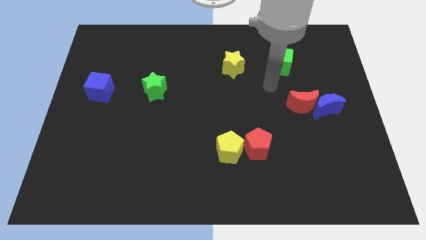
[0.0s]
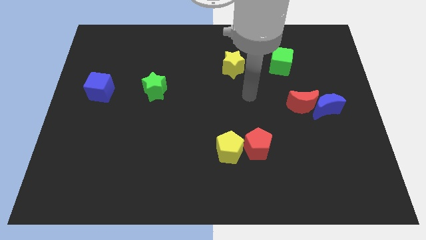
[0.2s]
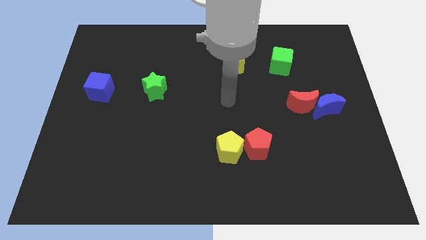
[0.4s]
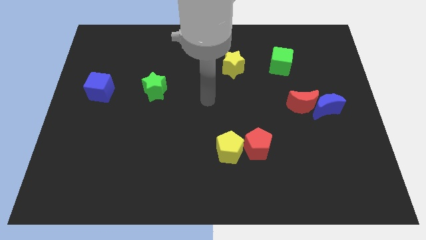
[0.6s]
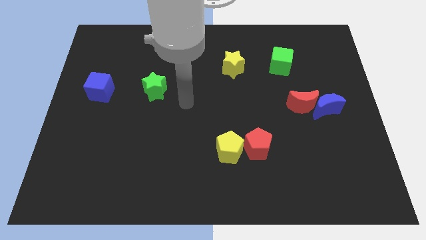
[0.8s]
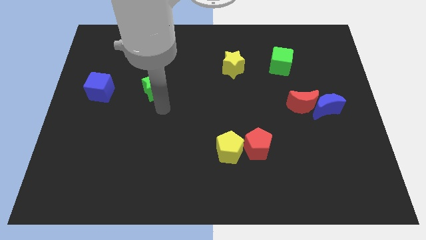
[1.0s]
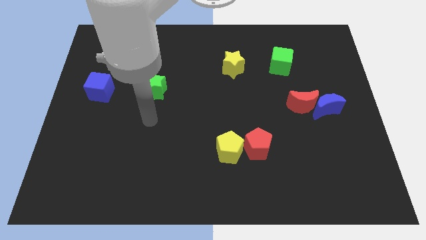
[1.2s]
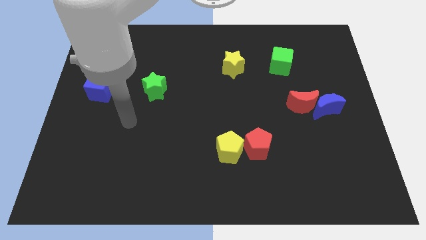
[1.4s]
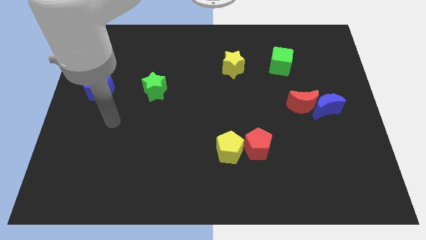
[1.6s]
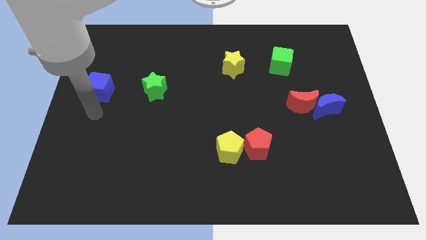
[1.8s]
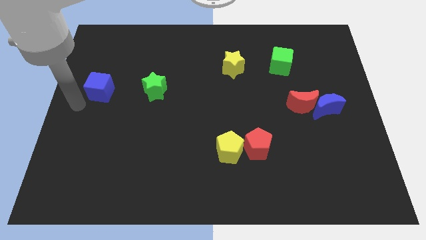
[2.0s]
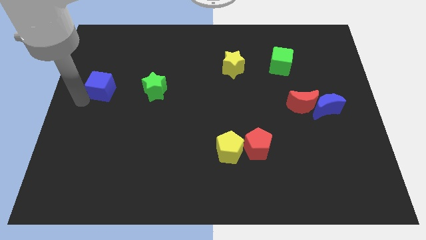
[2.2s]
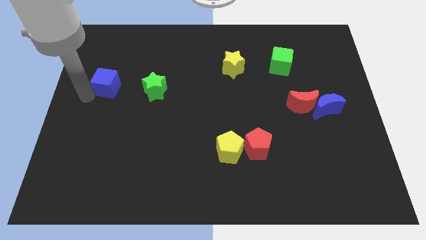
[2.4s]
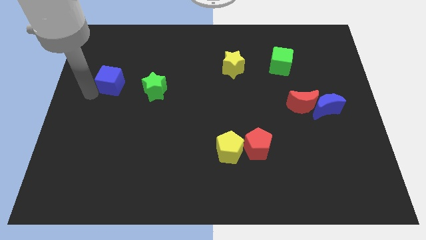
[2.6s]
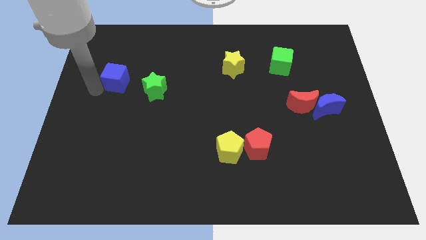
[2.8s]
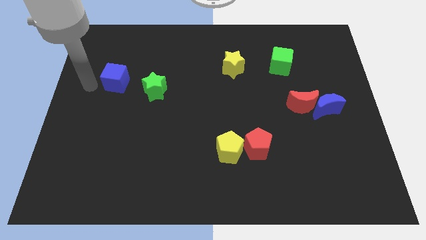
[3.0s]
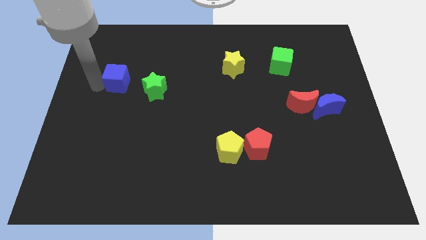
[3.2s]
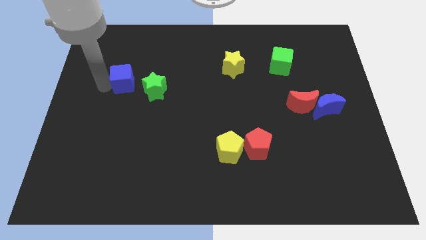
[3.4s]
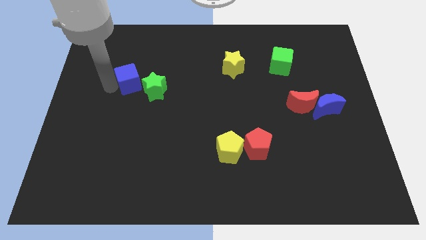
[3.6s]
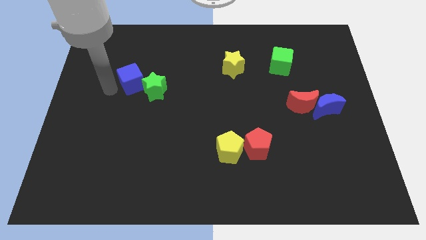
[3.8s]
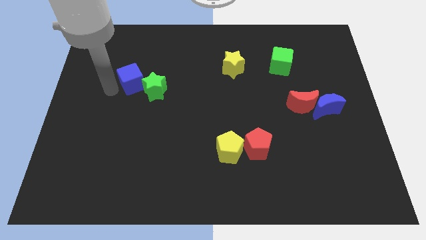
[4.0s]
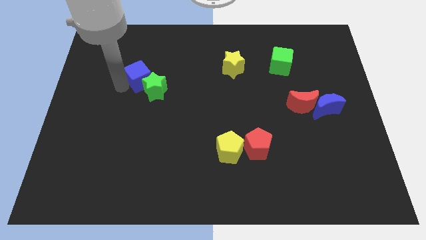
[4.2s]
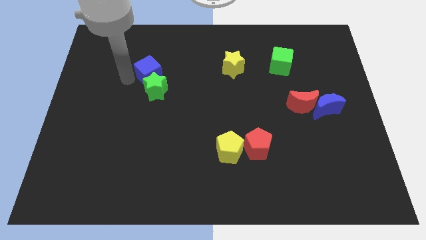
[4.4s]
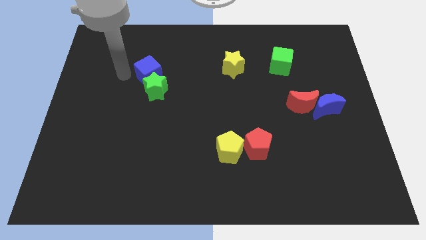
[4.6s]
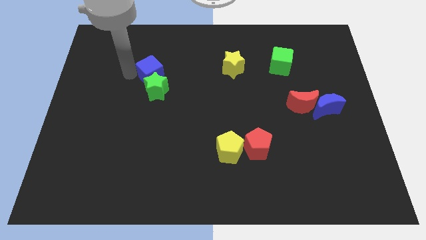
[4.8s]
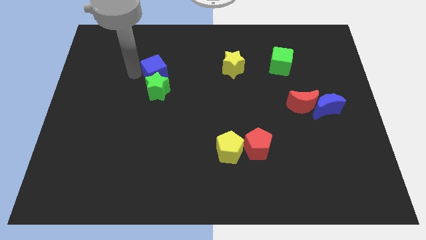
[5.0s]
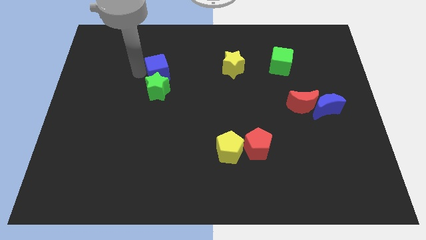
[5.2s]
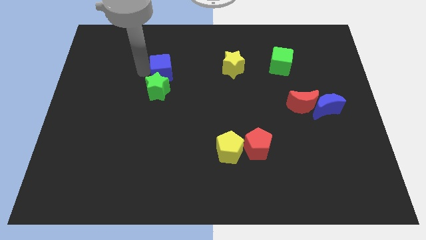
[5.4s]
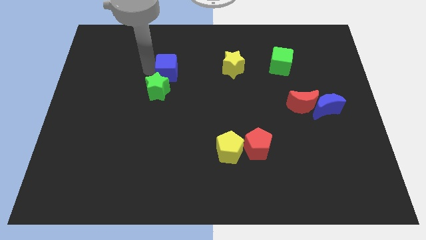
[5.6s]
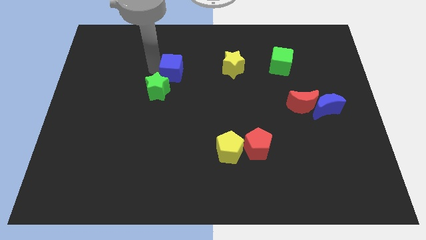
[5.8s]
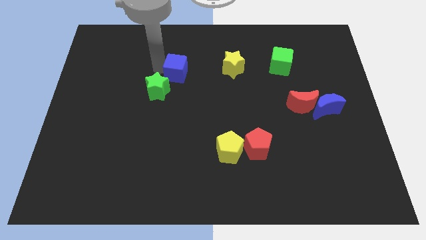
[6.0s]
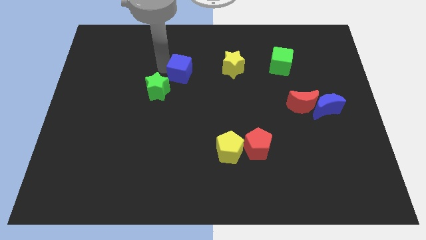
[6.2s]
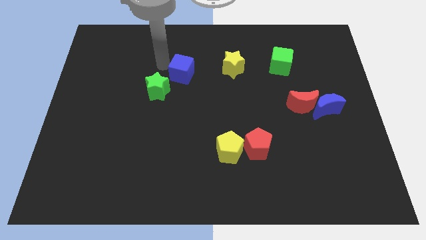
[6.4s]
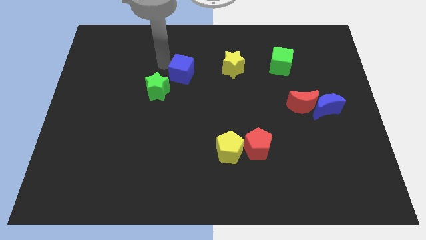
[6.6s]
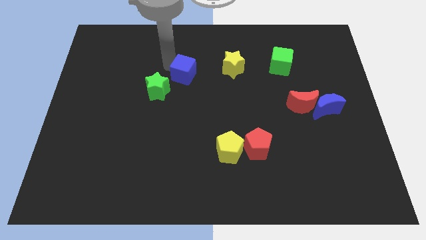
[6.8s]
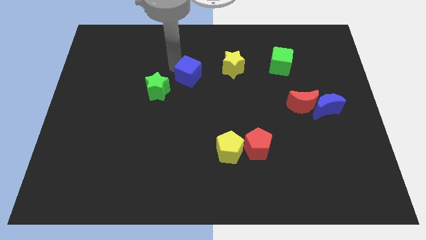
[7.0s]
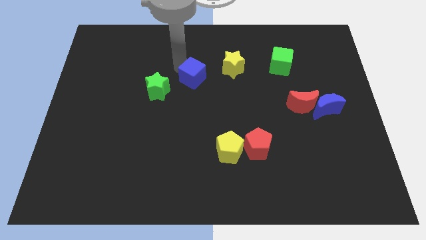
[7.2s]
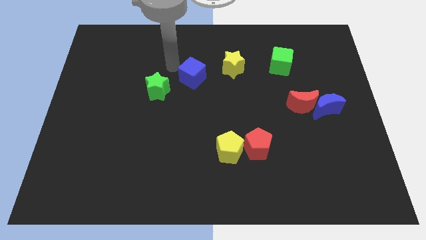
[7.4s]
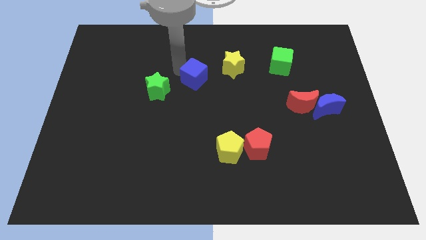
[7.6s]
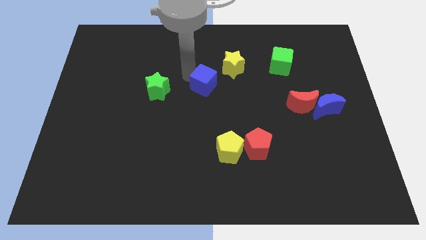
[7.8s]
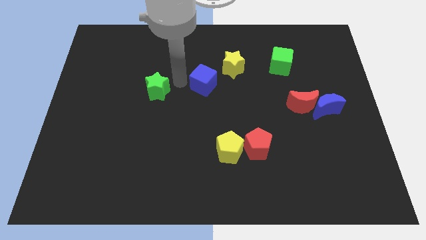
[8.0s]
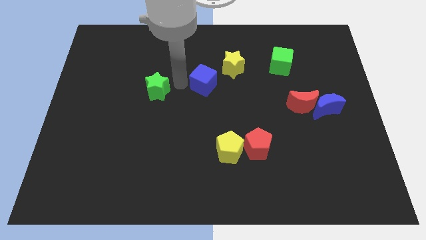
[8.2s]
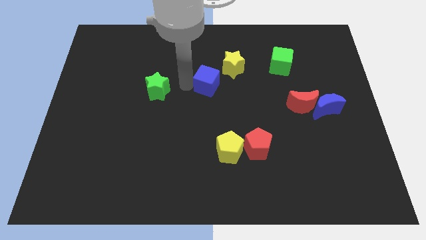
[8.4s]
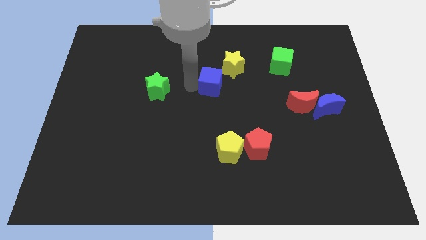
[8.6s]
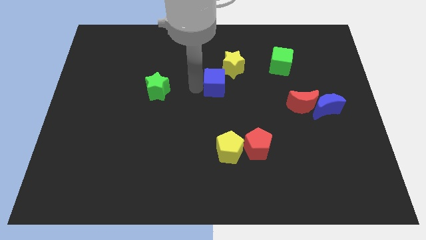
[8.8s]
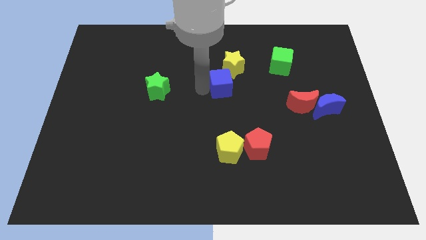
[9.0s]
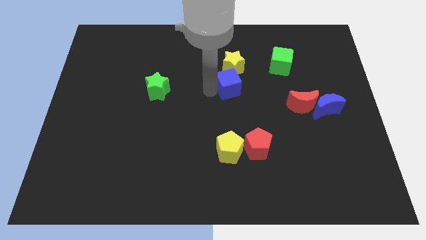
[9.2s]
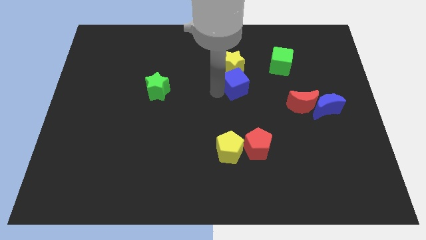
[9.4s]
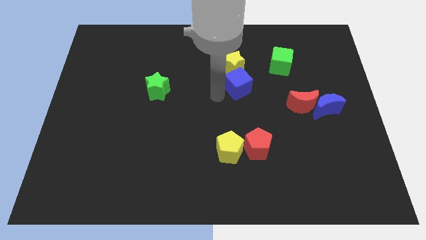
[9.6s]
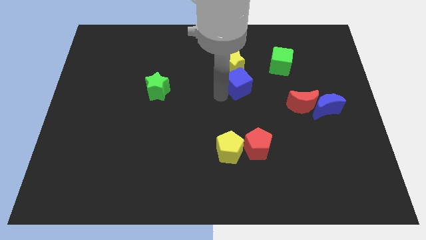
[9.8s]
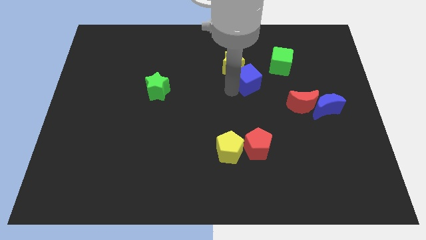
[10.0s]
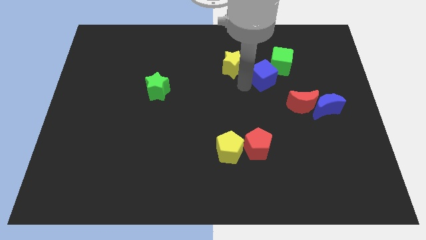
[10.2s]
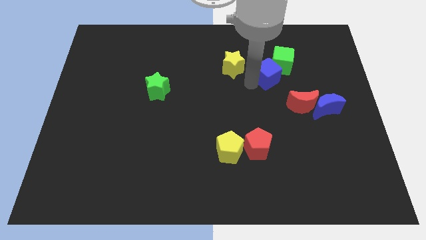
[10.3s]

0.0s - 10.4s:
slide the blue cube towards the green cube
